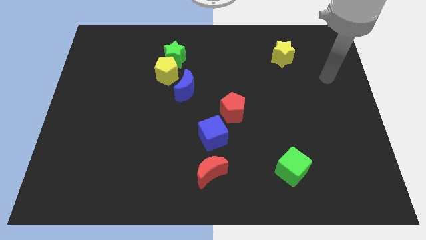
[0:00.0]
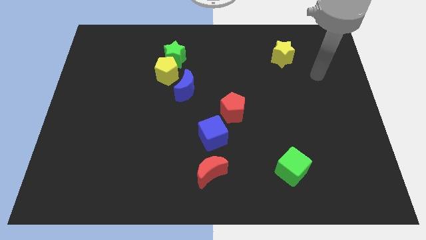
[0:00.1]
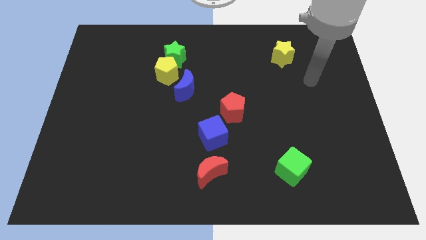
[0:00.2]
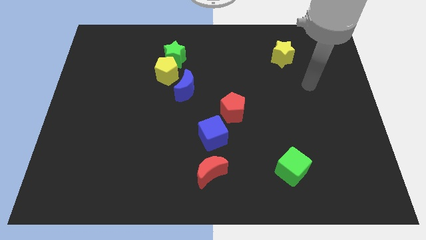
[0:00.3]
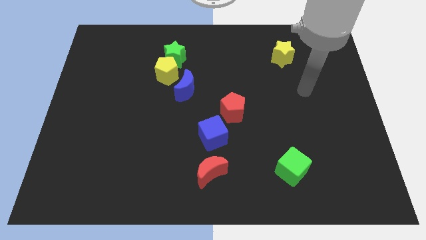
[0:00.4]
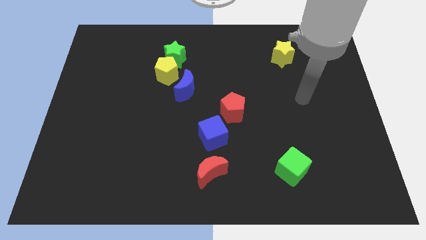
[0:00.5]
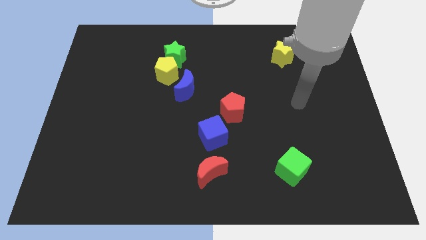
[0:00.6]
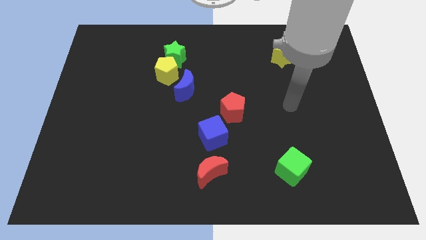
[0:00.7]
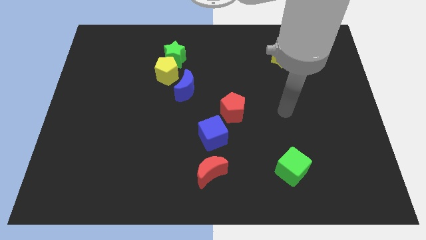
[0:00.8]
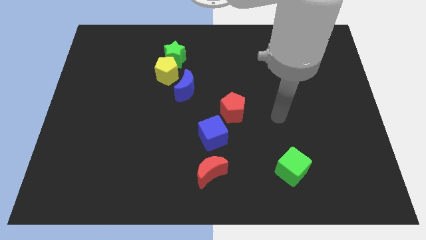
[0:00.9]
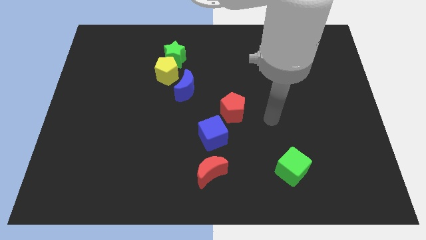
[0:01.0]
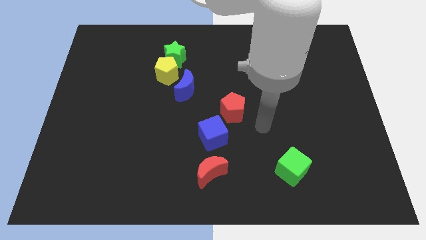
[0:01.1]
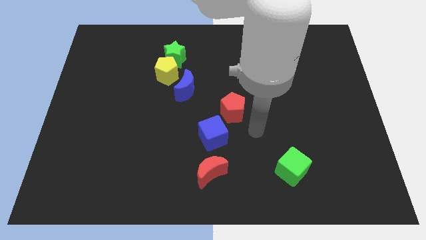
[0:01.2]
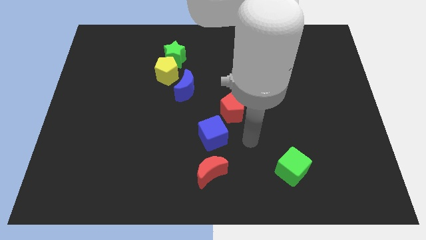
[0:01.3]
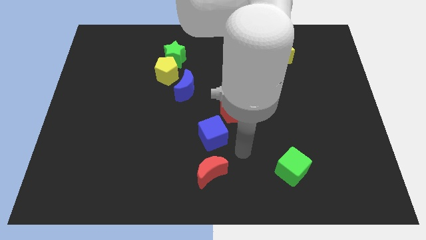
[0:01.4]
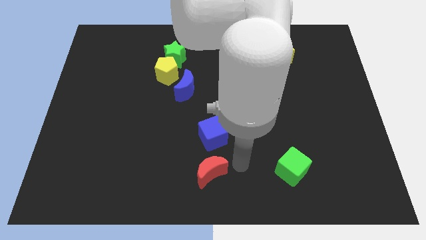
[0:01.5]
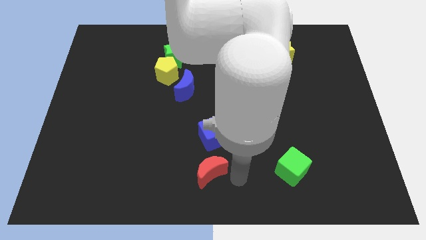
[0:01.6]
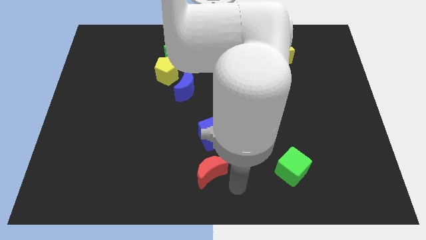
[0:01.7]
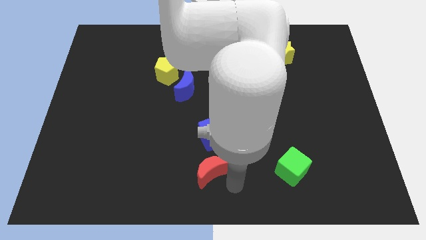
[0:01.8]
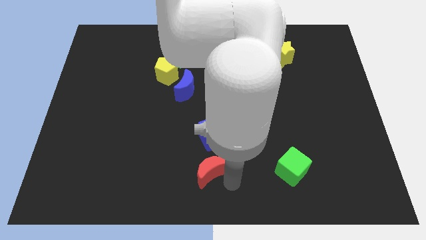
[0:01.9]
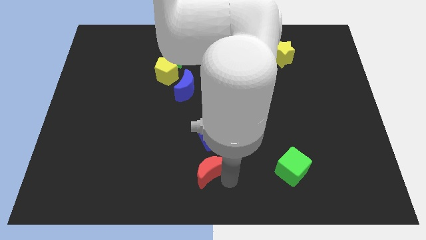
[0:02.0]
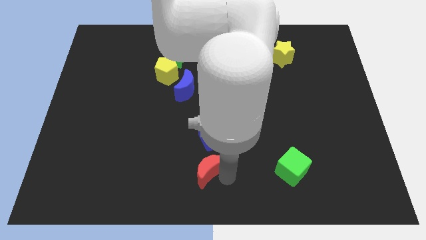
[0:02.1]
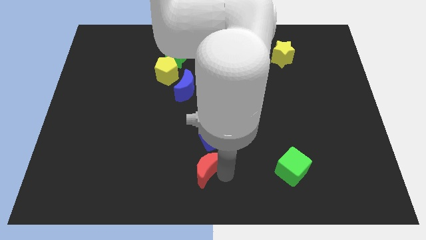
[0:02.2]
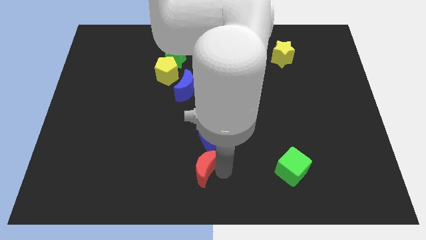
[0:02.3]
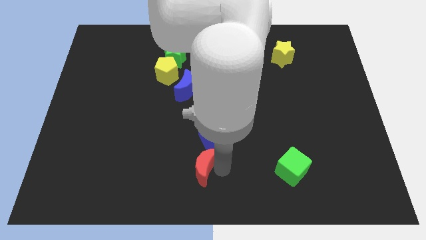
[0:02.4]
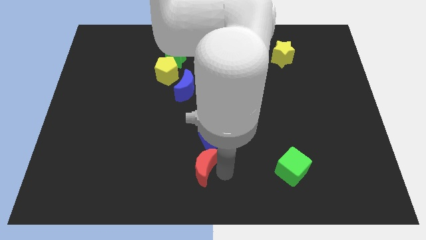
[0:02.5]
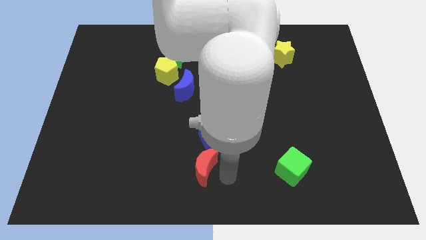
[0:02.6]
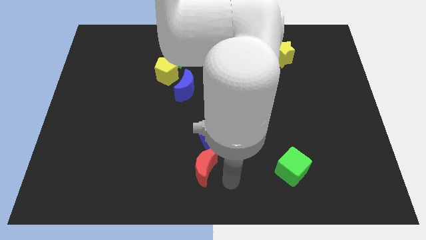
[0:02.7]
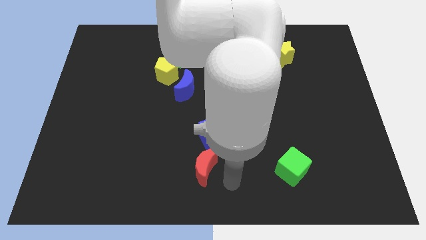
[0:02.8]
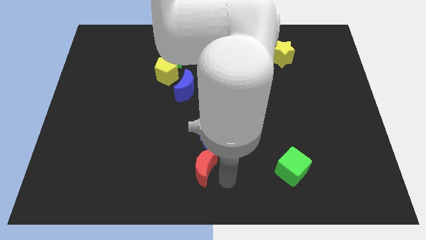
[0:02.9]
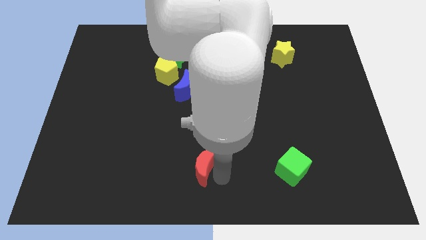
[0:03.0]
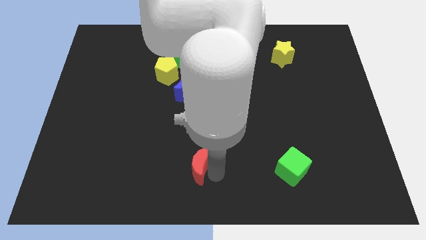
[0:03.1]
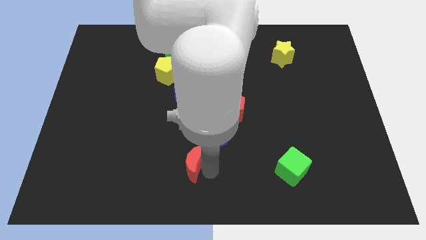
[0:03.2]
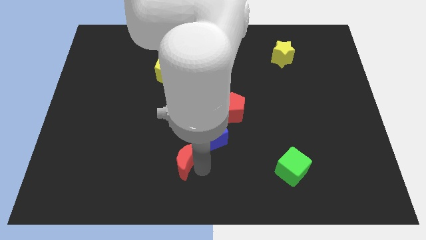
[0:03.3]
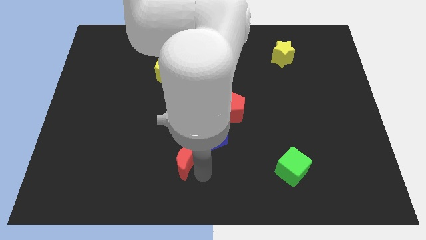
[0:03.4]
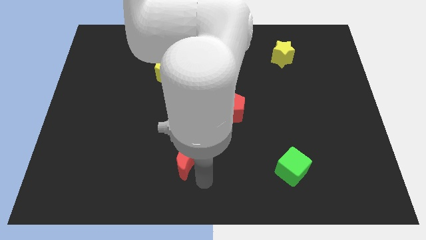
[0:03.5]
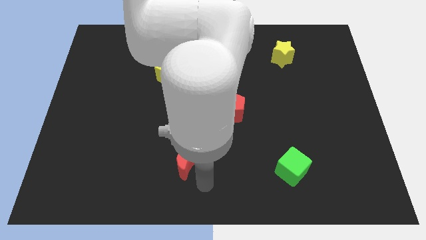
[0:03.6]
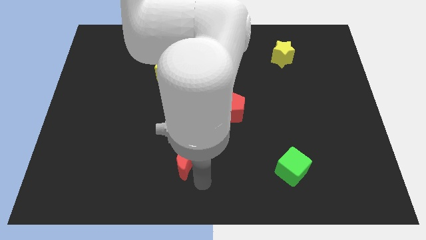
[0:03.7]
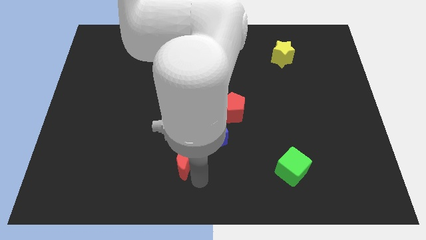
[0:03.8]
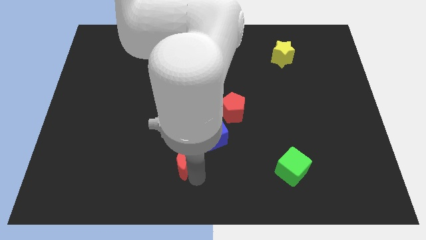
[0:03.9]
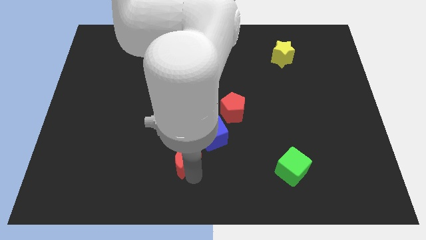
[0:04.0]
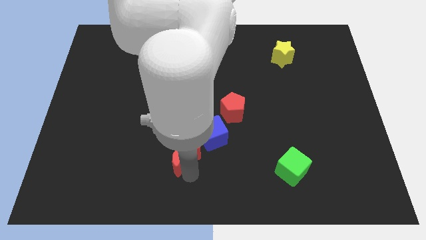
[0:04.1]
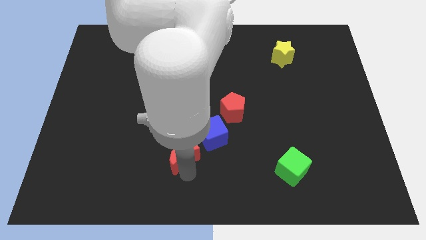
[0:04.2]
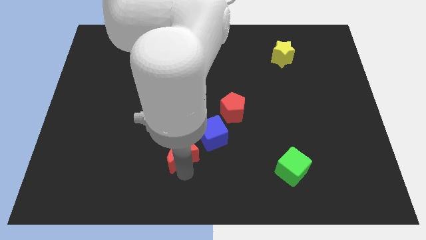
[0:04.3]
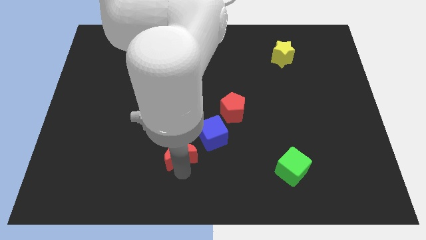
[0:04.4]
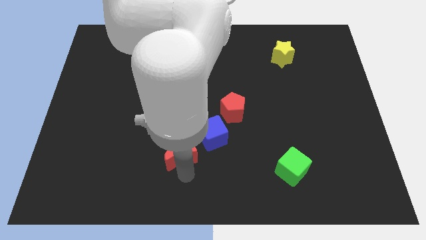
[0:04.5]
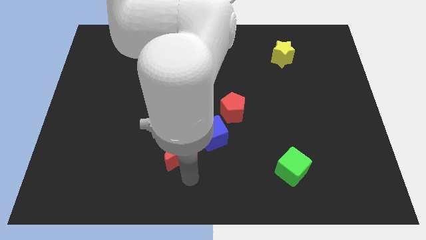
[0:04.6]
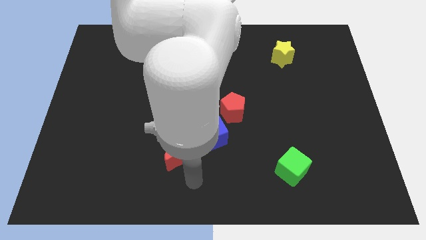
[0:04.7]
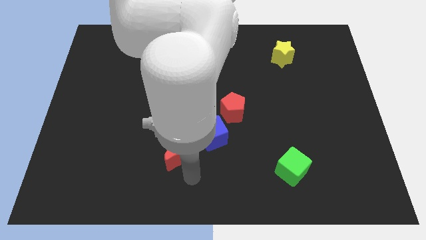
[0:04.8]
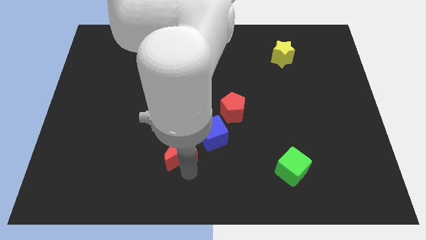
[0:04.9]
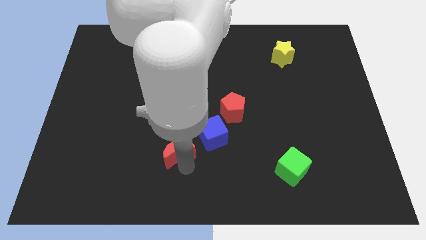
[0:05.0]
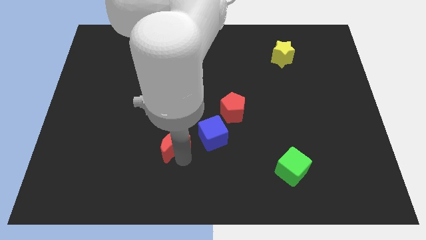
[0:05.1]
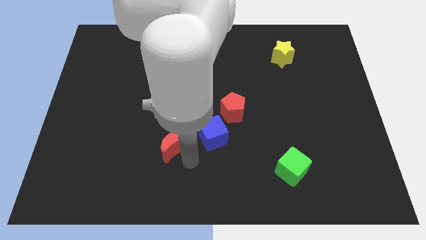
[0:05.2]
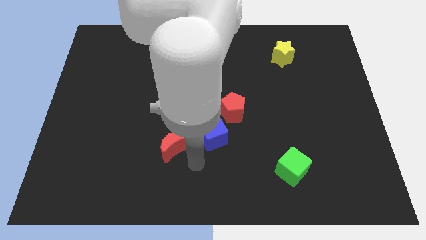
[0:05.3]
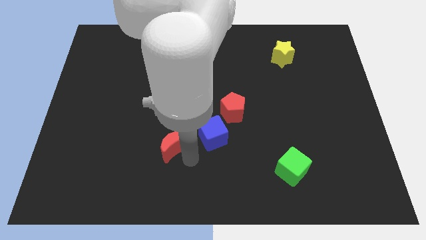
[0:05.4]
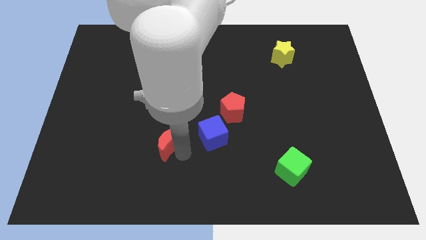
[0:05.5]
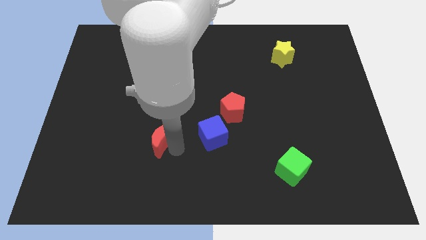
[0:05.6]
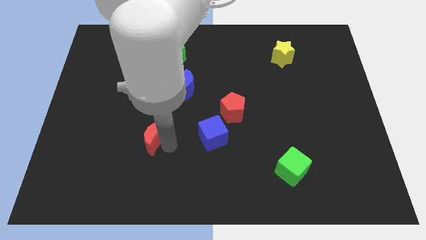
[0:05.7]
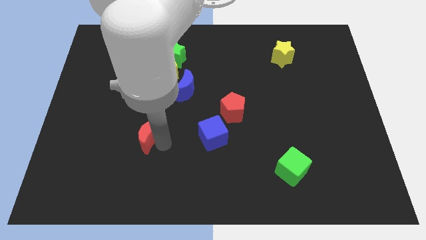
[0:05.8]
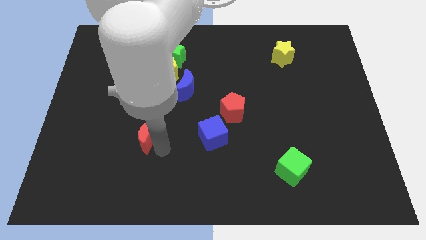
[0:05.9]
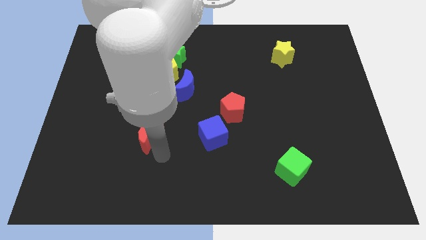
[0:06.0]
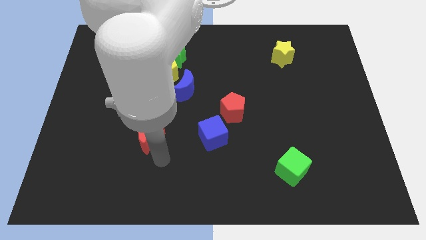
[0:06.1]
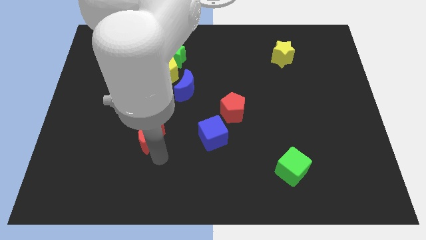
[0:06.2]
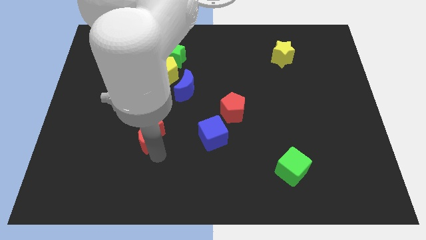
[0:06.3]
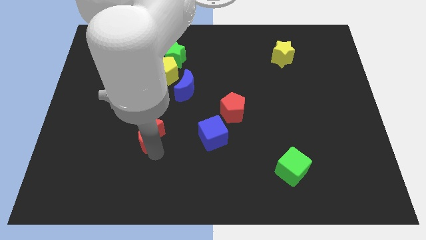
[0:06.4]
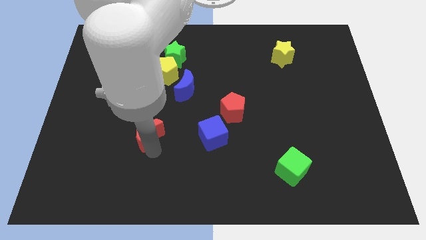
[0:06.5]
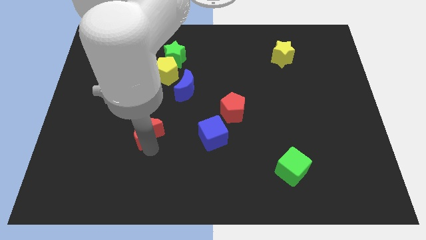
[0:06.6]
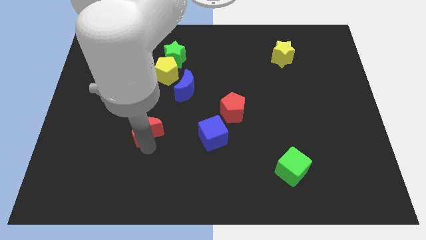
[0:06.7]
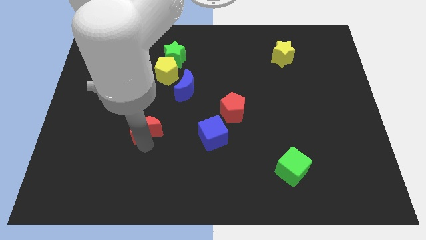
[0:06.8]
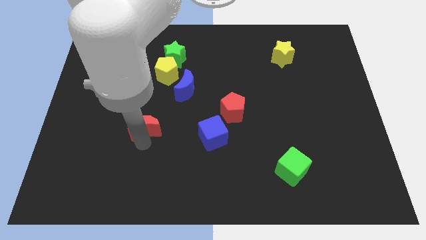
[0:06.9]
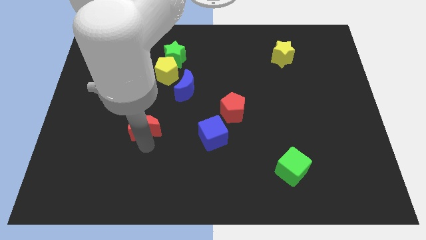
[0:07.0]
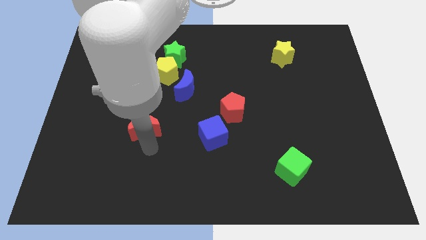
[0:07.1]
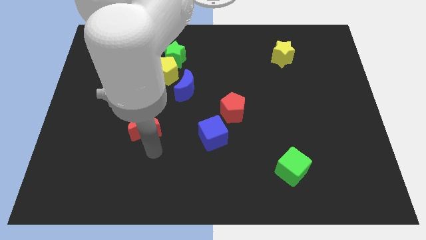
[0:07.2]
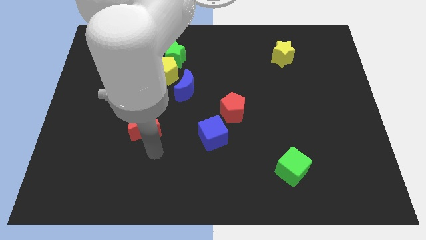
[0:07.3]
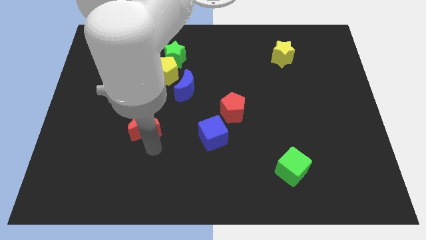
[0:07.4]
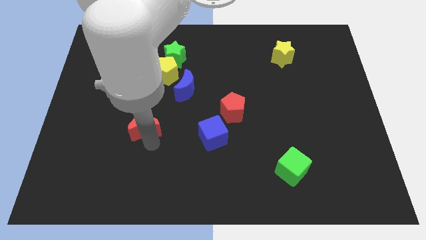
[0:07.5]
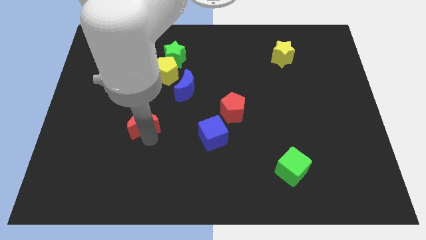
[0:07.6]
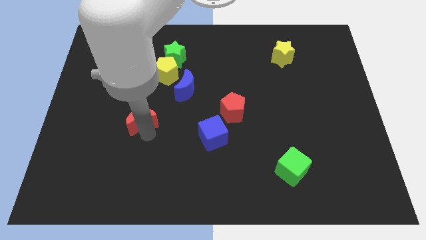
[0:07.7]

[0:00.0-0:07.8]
move the red moon diagonally up and left

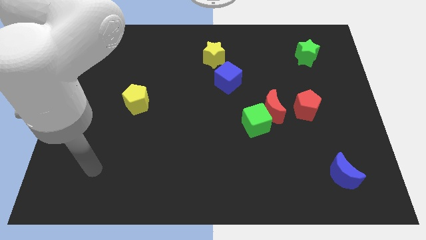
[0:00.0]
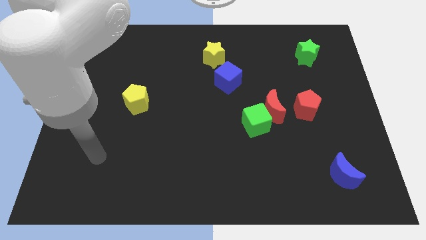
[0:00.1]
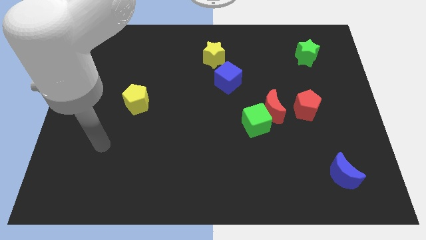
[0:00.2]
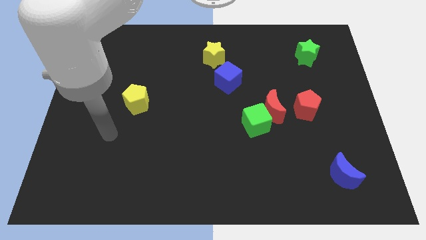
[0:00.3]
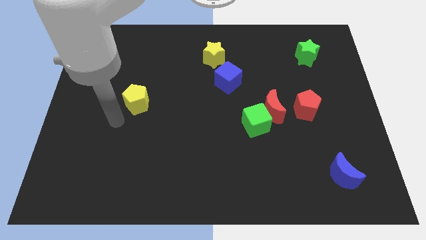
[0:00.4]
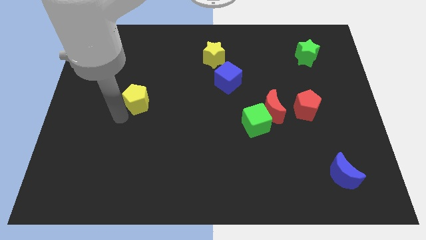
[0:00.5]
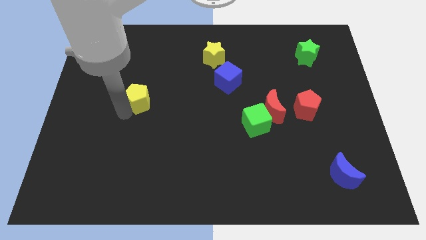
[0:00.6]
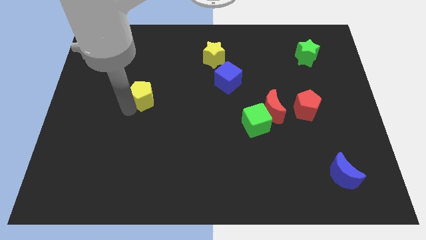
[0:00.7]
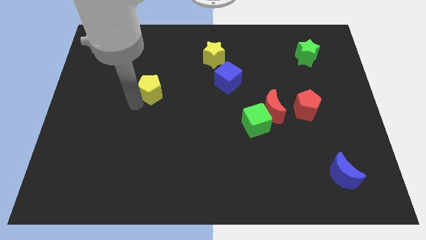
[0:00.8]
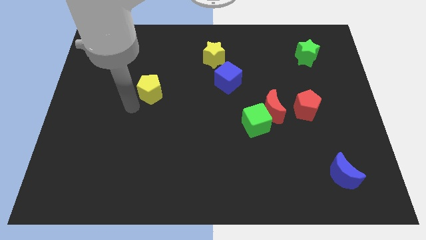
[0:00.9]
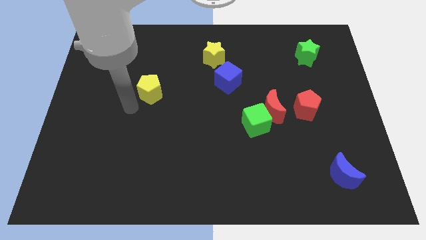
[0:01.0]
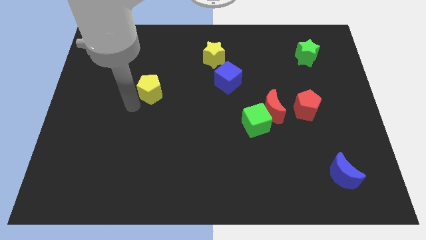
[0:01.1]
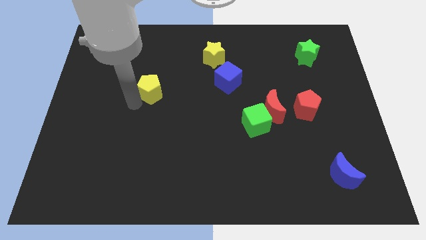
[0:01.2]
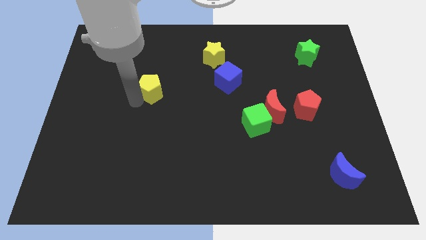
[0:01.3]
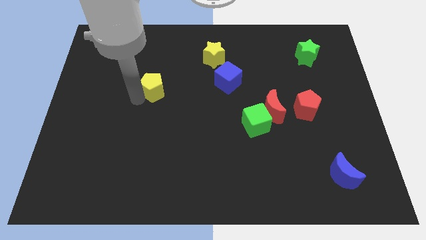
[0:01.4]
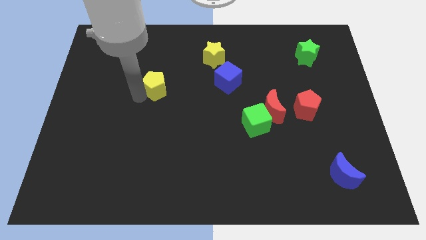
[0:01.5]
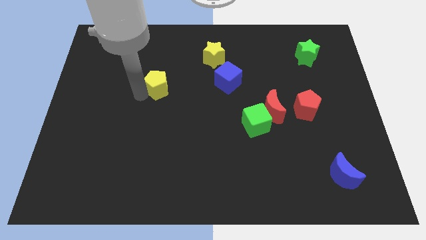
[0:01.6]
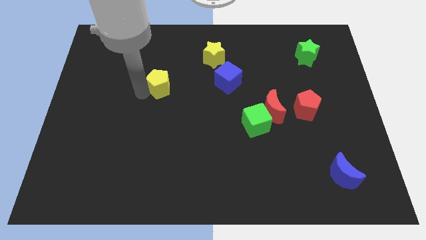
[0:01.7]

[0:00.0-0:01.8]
push the yellow pentagon a bit up and to the right diagonally
